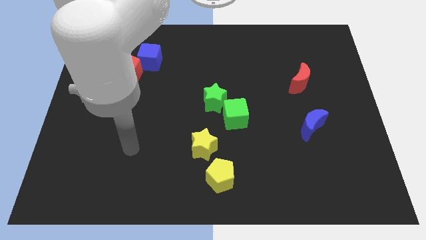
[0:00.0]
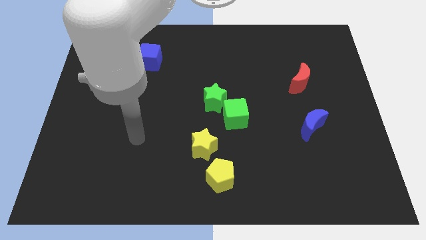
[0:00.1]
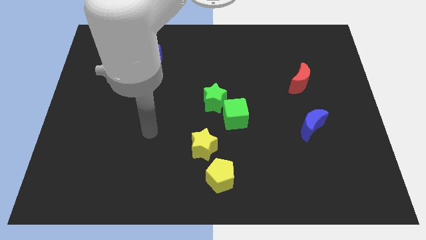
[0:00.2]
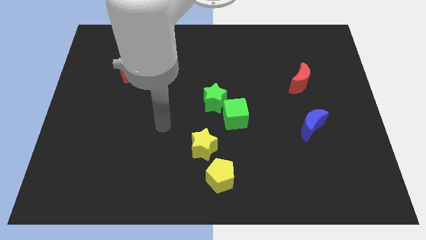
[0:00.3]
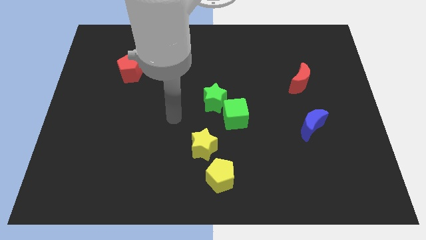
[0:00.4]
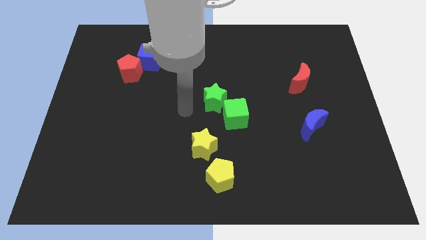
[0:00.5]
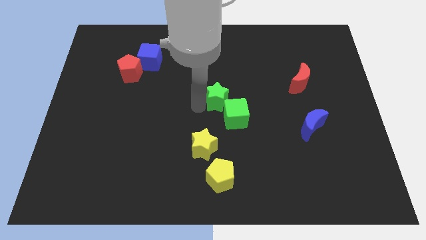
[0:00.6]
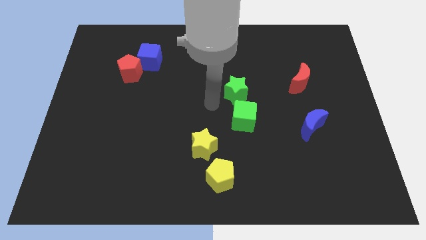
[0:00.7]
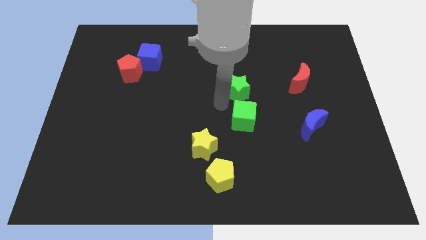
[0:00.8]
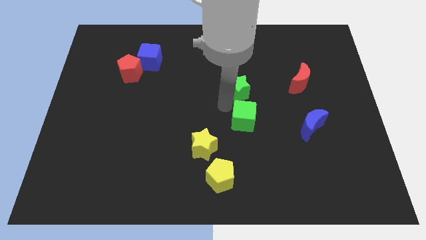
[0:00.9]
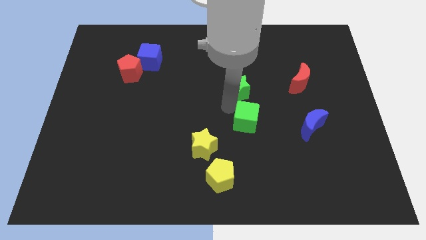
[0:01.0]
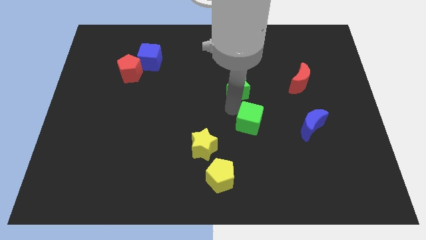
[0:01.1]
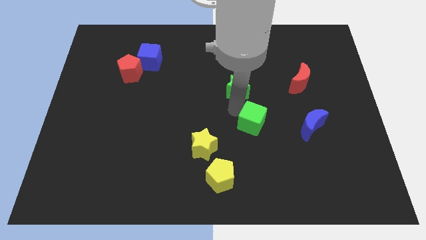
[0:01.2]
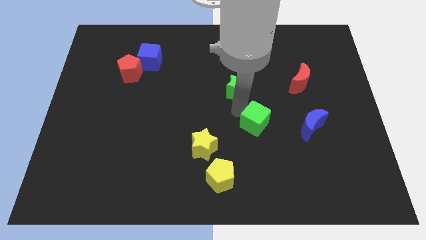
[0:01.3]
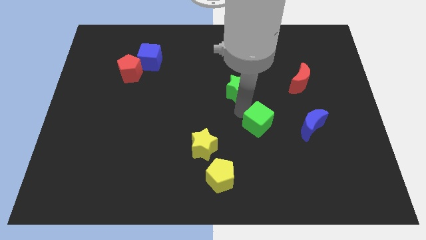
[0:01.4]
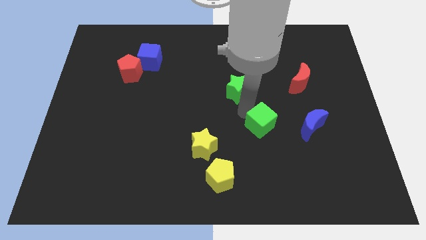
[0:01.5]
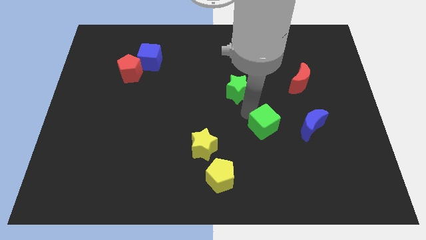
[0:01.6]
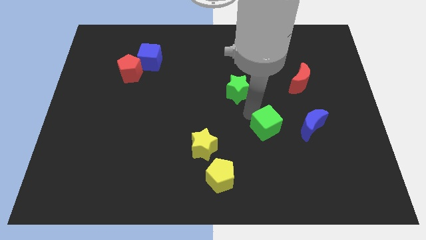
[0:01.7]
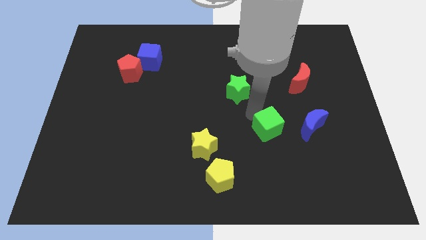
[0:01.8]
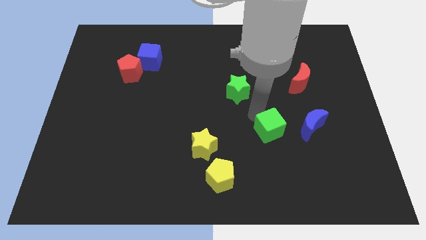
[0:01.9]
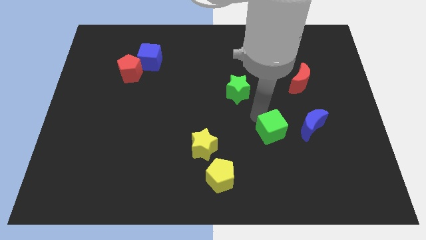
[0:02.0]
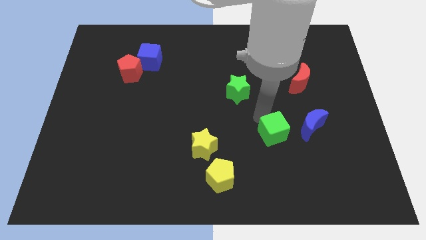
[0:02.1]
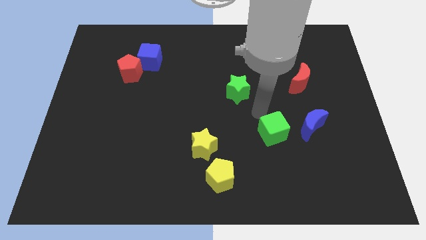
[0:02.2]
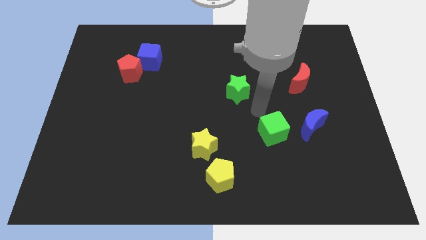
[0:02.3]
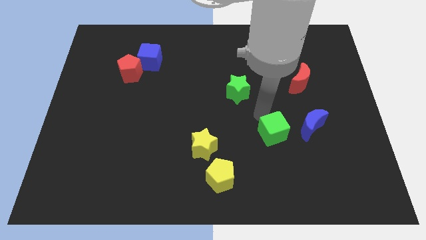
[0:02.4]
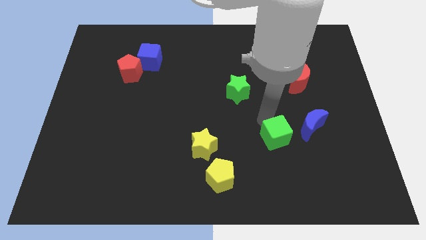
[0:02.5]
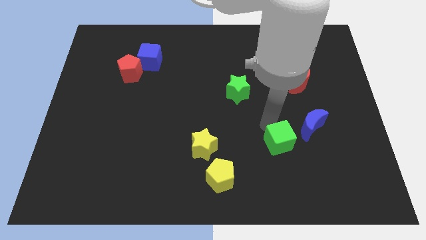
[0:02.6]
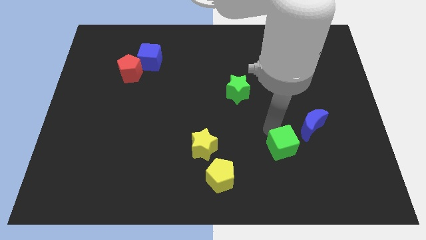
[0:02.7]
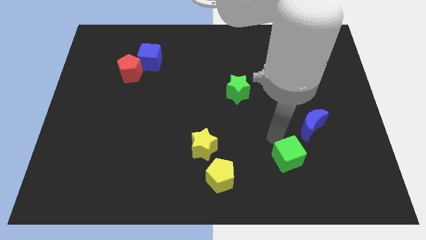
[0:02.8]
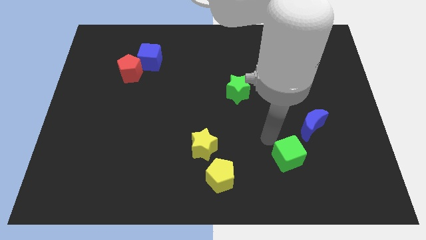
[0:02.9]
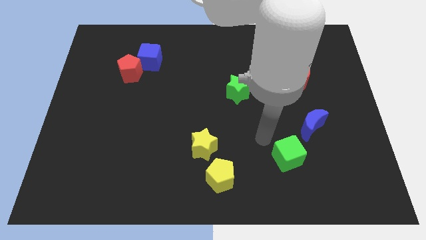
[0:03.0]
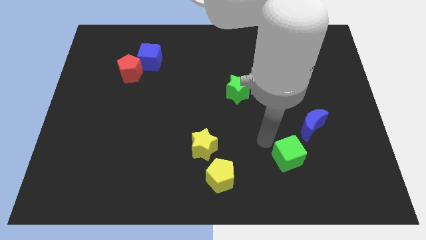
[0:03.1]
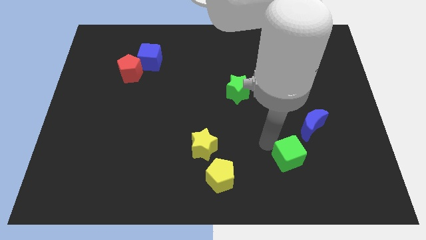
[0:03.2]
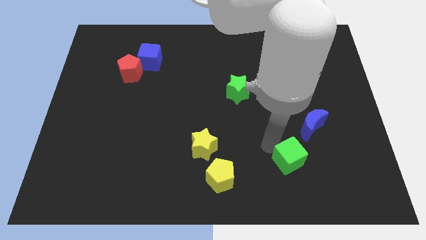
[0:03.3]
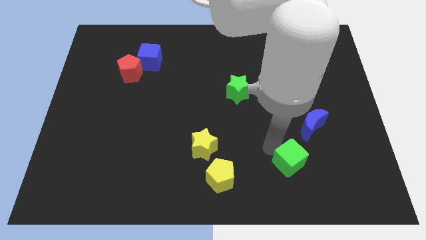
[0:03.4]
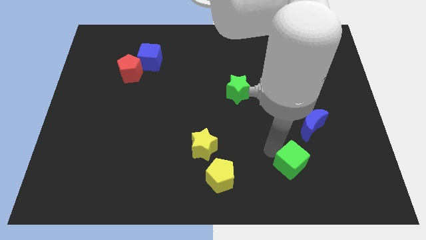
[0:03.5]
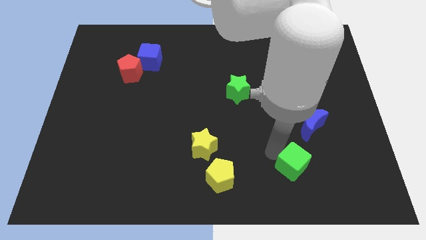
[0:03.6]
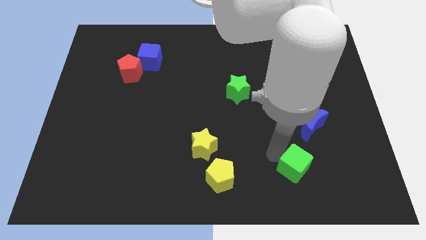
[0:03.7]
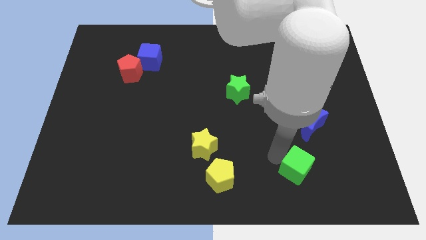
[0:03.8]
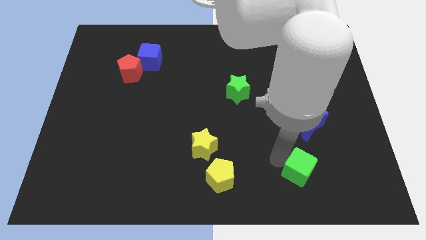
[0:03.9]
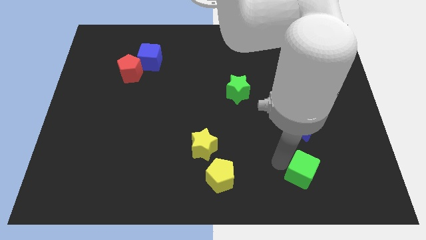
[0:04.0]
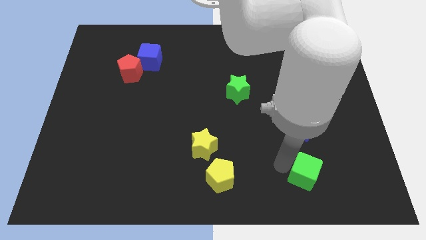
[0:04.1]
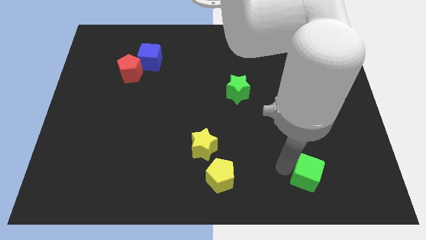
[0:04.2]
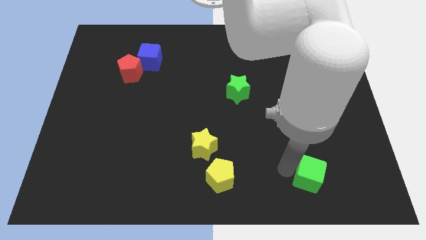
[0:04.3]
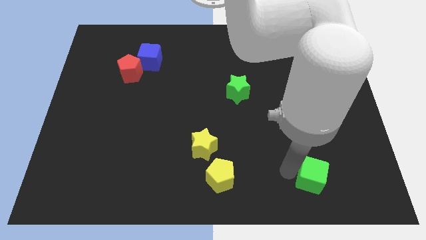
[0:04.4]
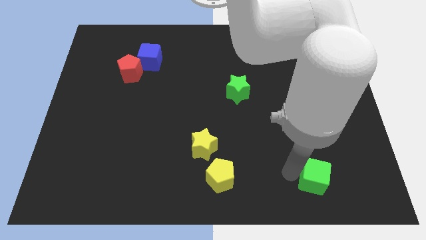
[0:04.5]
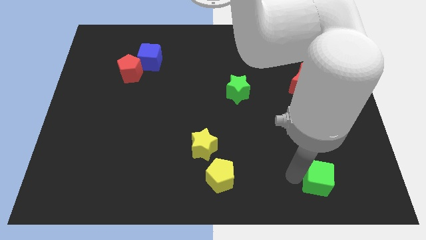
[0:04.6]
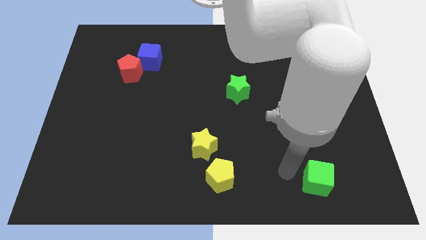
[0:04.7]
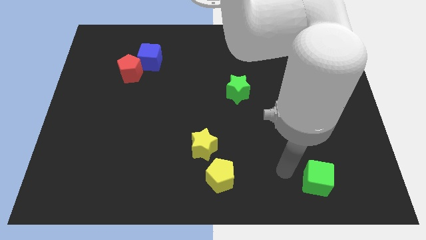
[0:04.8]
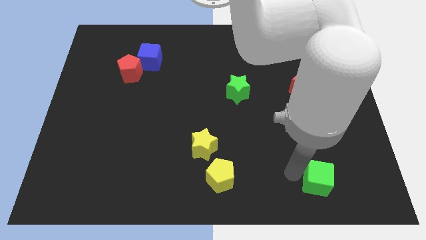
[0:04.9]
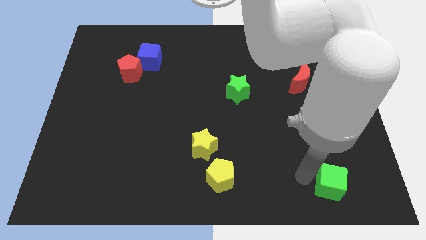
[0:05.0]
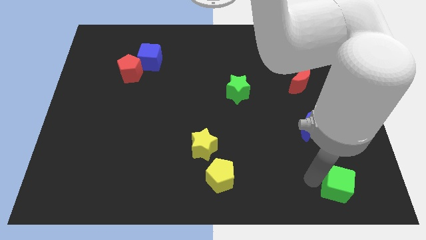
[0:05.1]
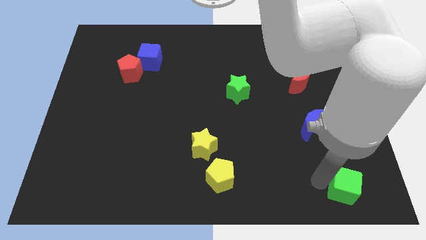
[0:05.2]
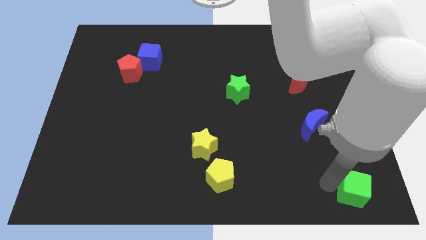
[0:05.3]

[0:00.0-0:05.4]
put the green cube to the bottom right corner

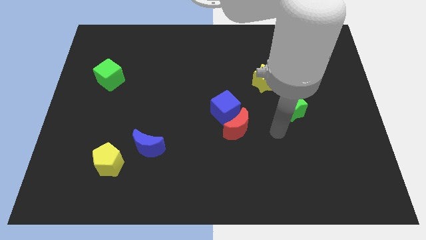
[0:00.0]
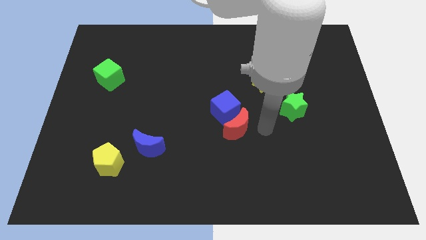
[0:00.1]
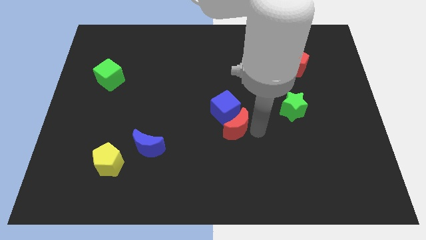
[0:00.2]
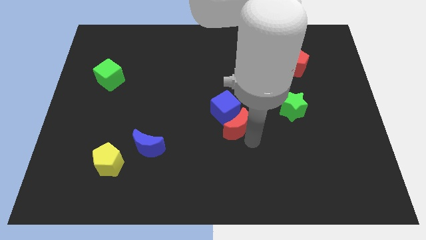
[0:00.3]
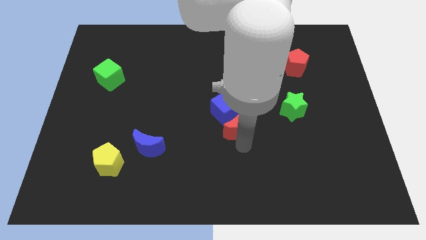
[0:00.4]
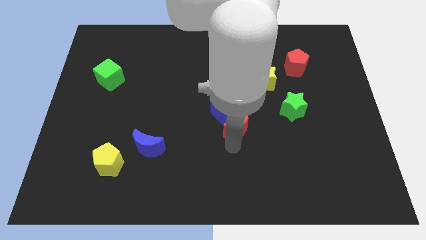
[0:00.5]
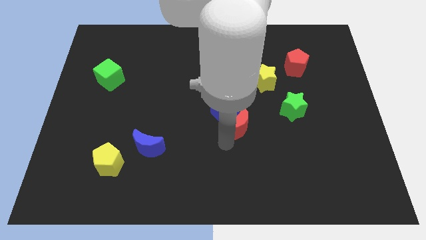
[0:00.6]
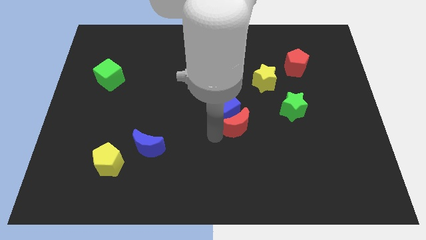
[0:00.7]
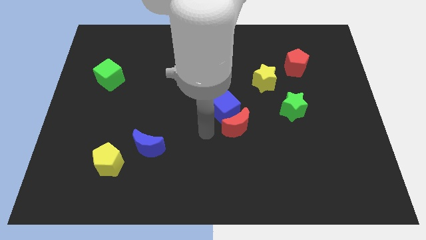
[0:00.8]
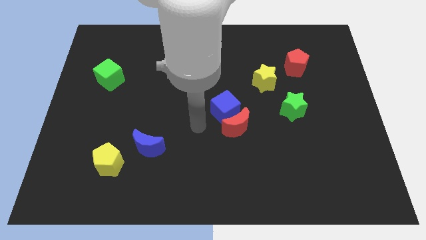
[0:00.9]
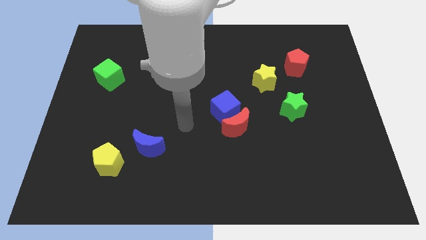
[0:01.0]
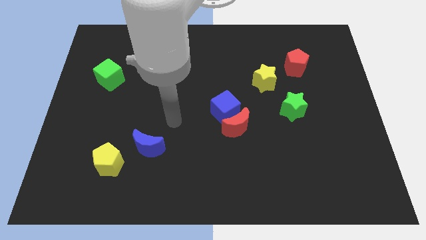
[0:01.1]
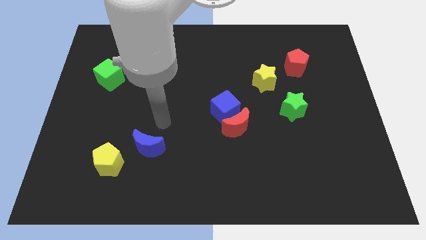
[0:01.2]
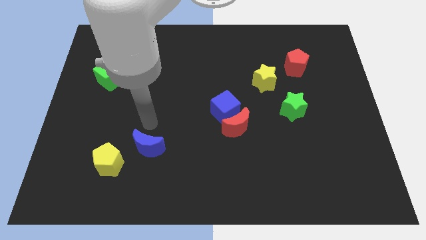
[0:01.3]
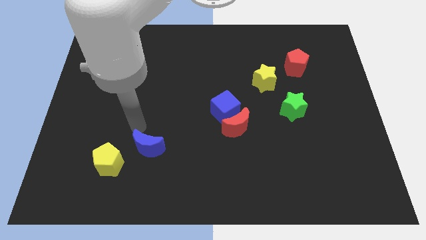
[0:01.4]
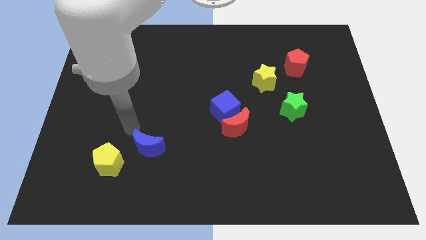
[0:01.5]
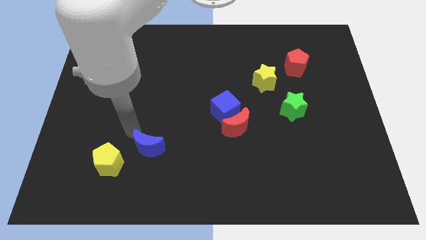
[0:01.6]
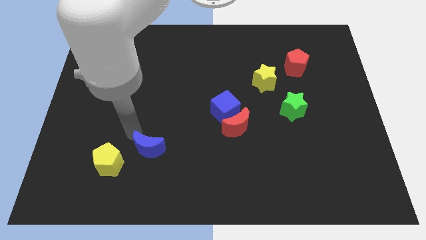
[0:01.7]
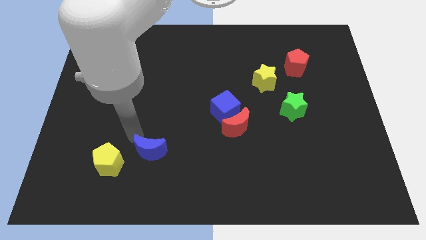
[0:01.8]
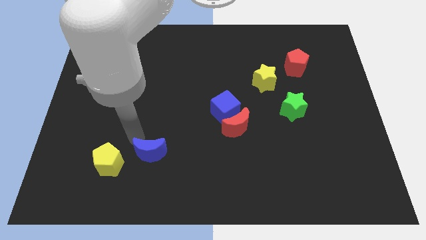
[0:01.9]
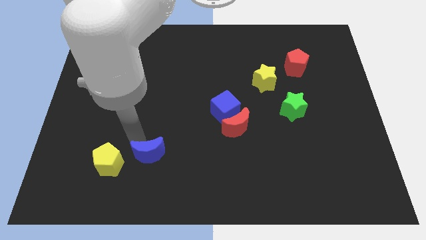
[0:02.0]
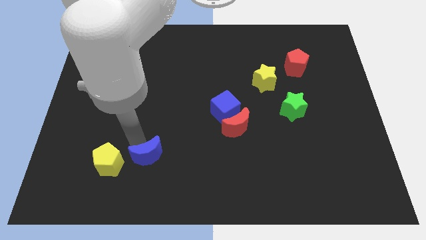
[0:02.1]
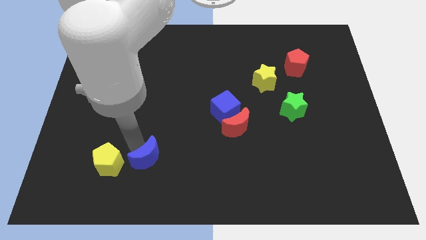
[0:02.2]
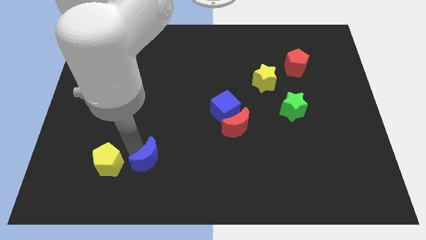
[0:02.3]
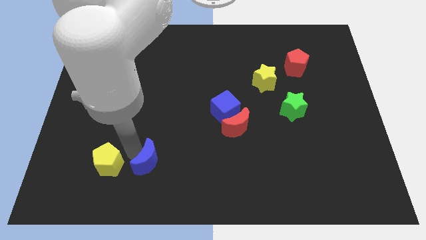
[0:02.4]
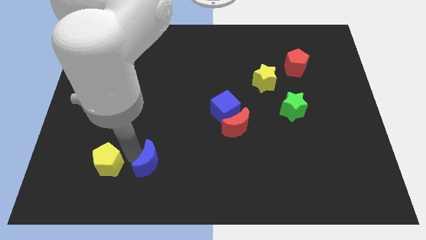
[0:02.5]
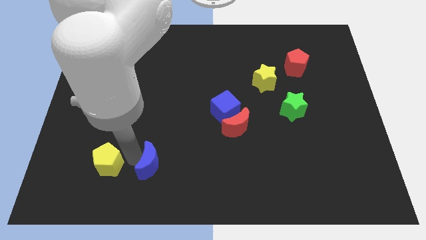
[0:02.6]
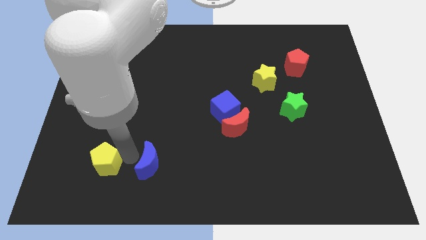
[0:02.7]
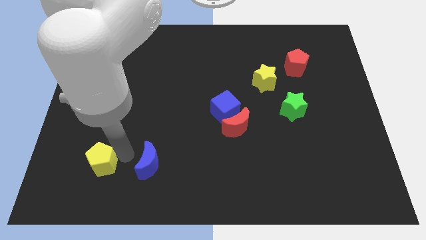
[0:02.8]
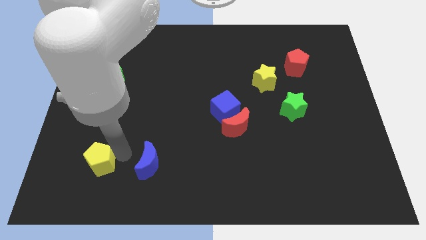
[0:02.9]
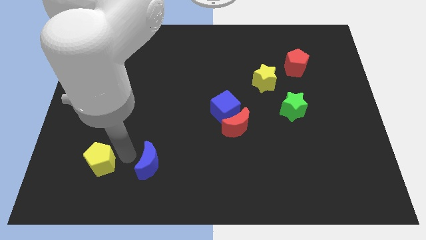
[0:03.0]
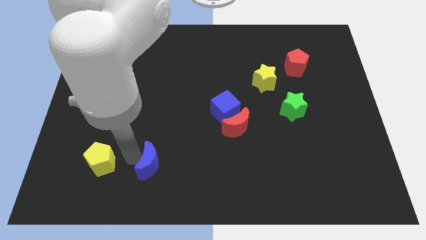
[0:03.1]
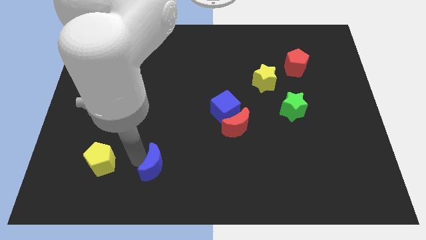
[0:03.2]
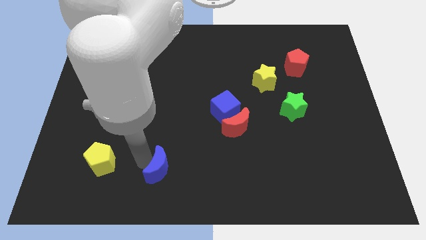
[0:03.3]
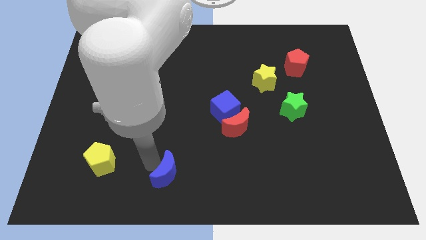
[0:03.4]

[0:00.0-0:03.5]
slide the blue moon to the bottom side

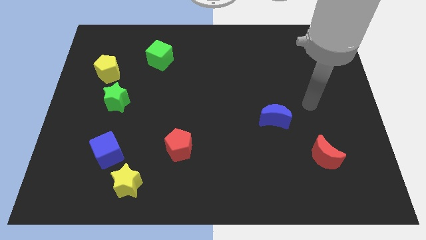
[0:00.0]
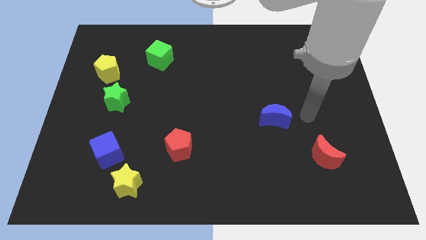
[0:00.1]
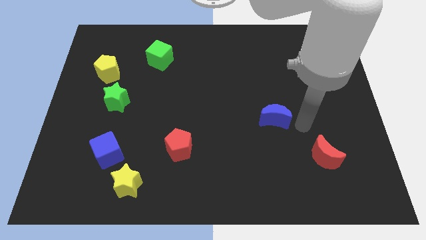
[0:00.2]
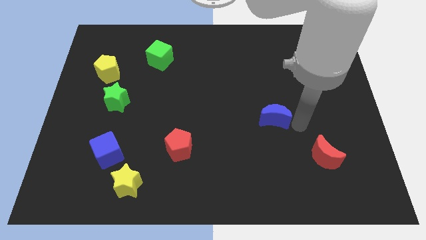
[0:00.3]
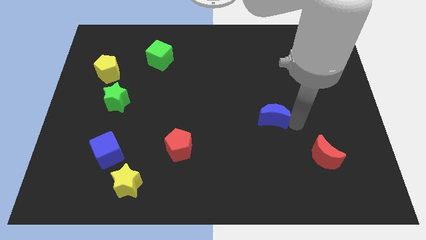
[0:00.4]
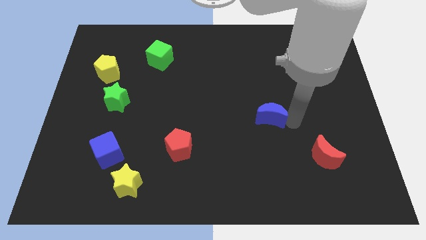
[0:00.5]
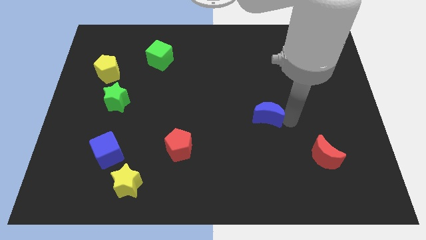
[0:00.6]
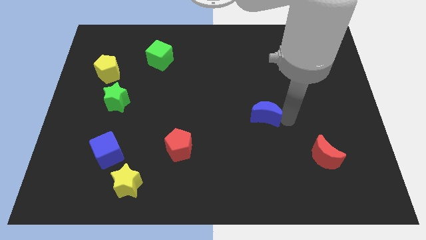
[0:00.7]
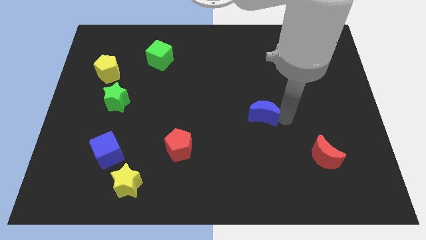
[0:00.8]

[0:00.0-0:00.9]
push the blue moon to the center
